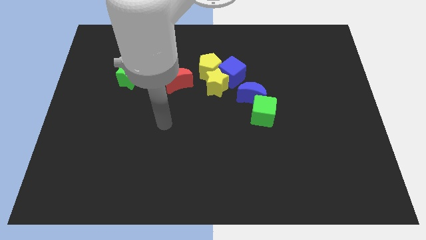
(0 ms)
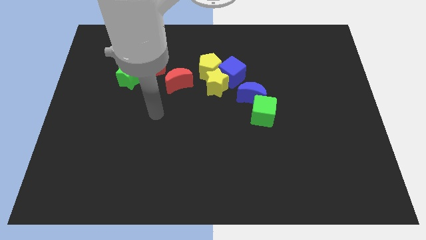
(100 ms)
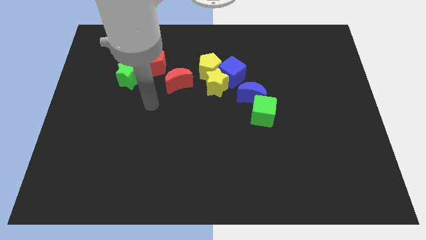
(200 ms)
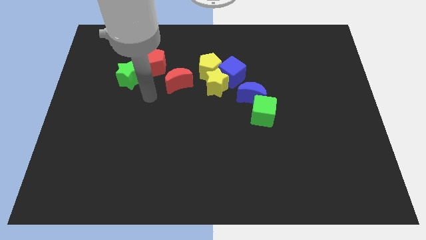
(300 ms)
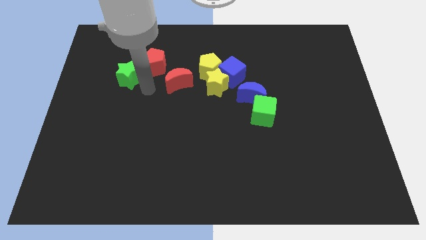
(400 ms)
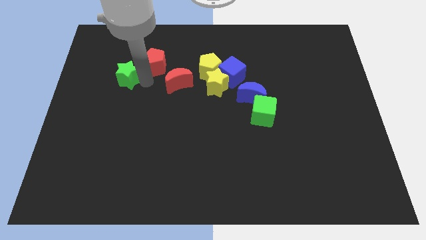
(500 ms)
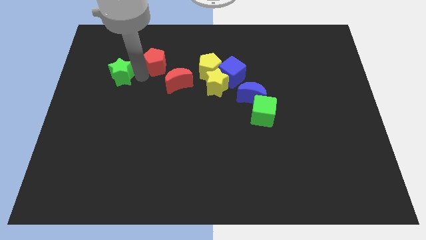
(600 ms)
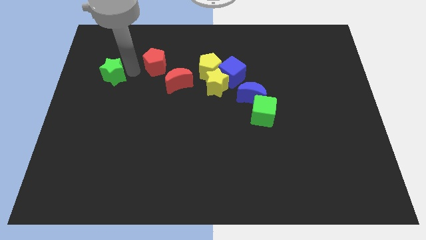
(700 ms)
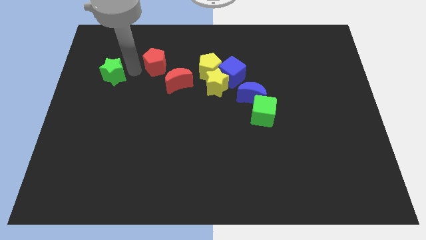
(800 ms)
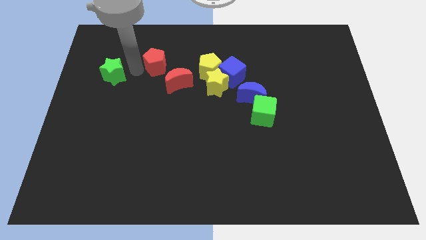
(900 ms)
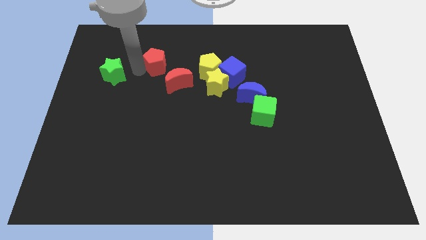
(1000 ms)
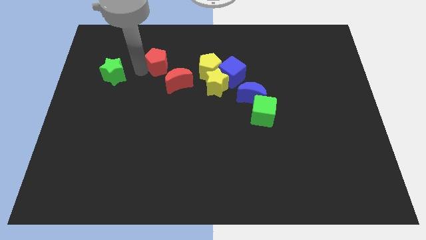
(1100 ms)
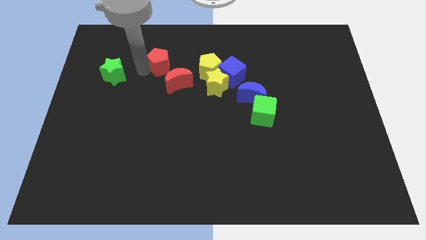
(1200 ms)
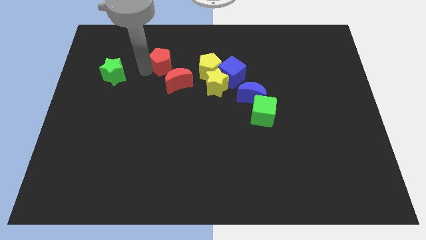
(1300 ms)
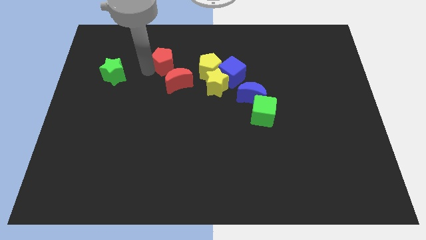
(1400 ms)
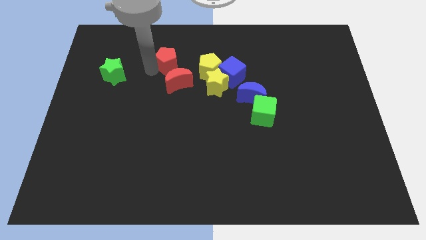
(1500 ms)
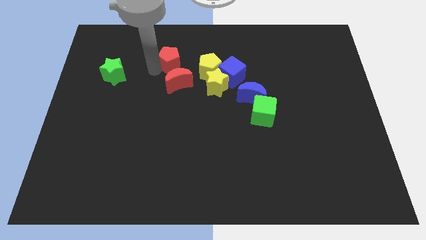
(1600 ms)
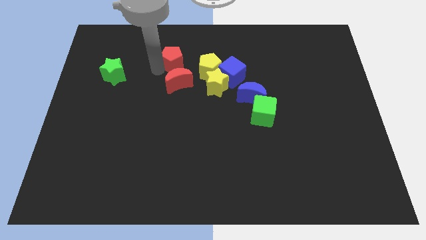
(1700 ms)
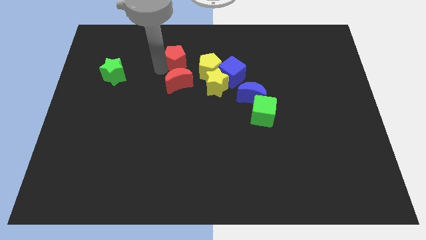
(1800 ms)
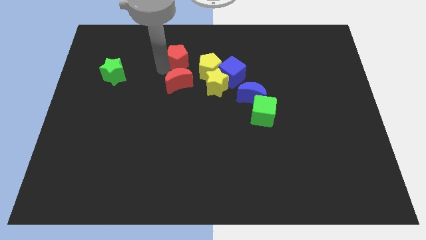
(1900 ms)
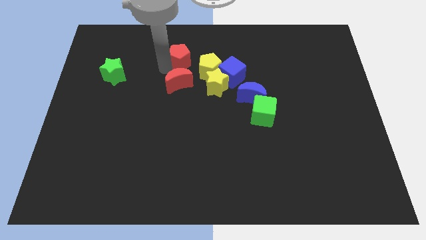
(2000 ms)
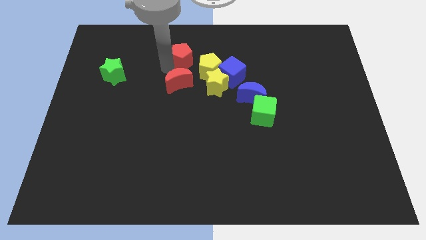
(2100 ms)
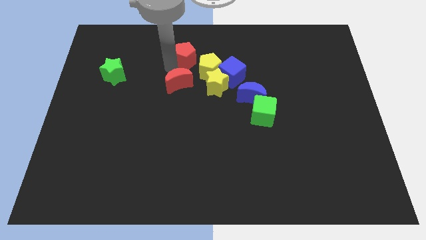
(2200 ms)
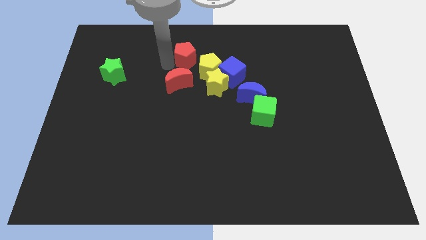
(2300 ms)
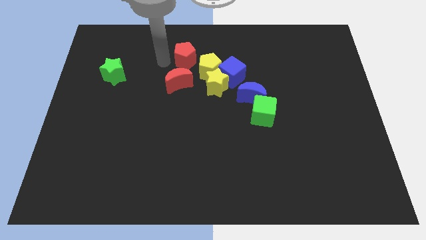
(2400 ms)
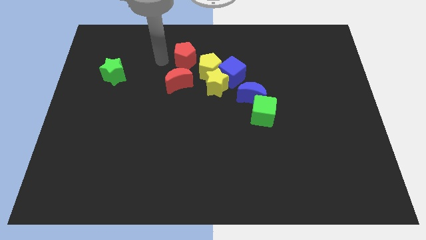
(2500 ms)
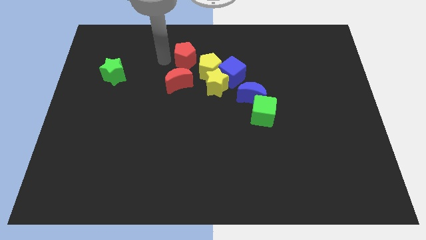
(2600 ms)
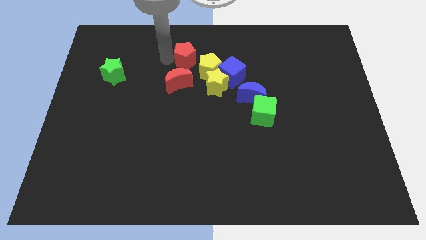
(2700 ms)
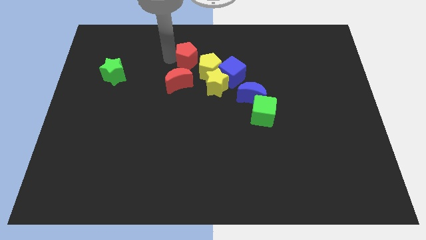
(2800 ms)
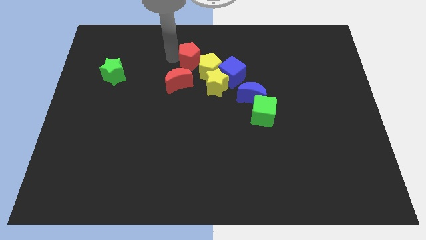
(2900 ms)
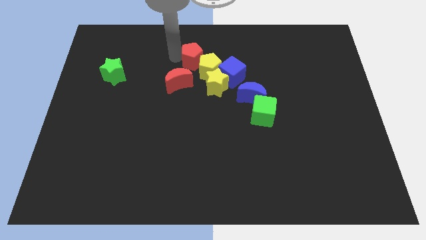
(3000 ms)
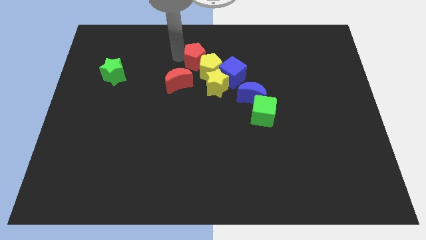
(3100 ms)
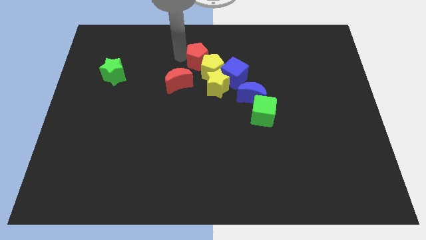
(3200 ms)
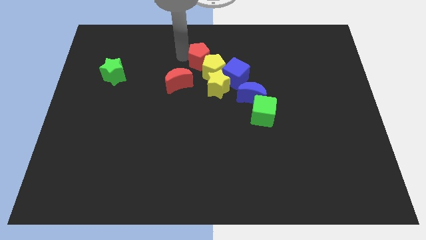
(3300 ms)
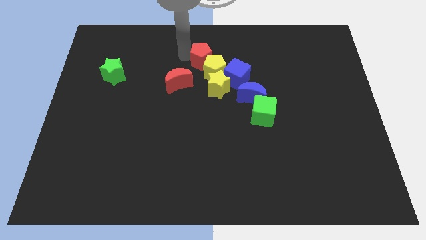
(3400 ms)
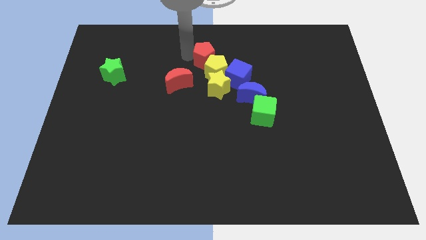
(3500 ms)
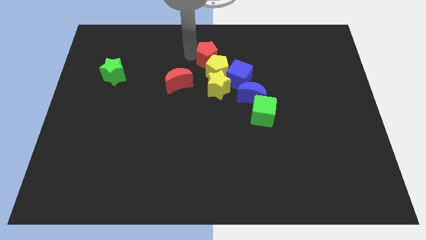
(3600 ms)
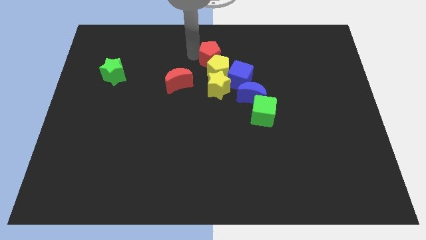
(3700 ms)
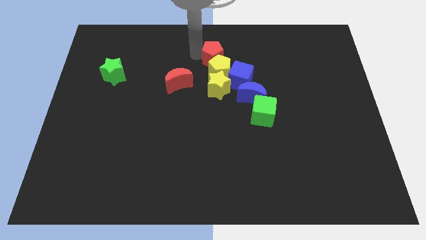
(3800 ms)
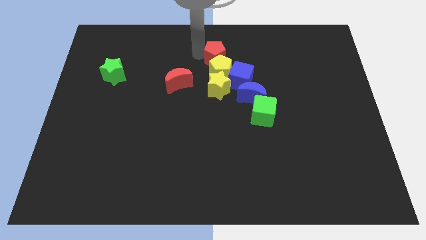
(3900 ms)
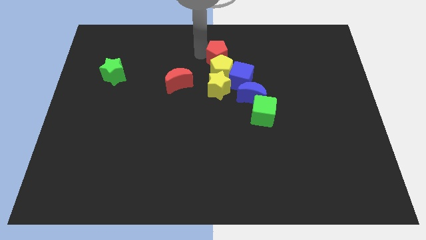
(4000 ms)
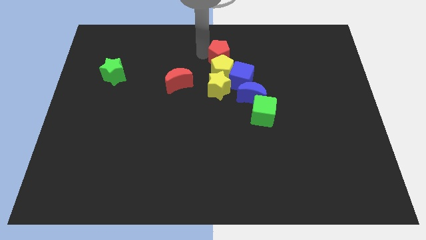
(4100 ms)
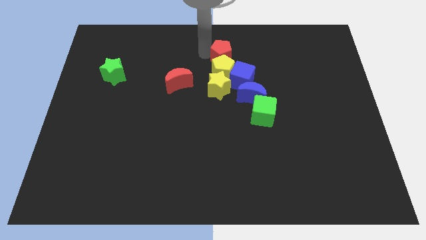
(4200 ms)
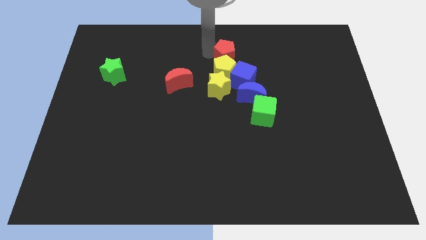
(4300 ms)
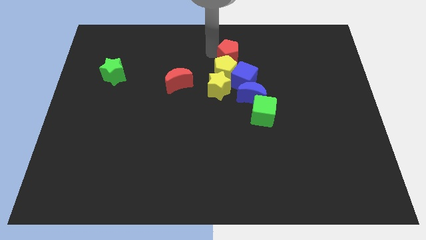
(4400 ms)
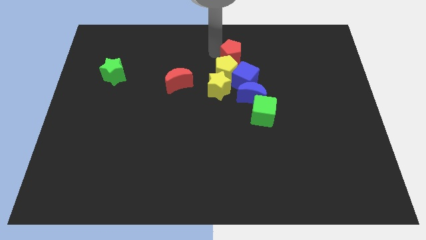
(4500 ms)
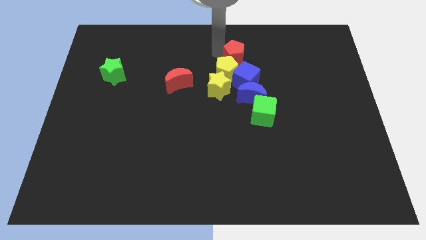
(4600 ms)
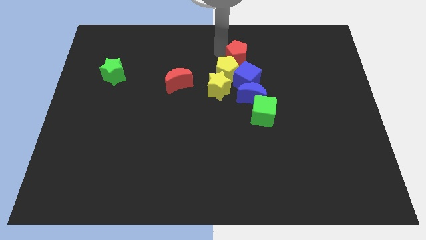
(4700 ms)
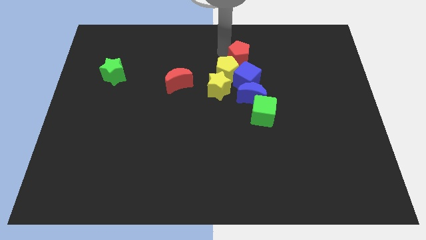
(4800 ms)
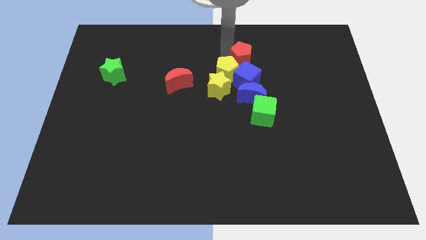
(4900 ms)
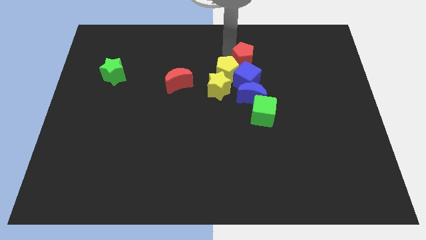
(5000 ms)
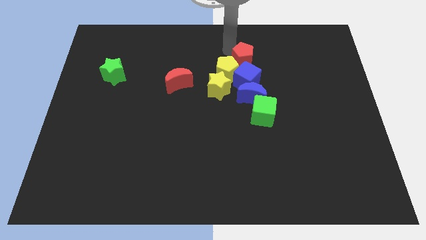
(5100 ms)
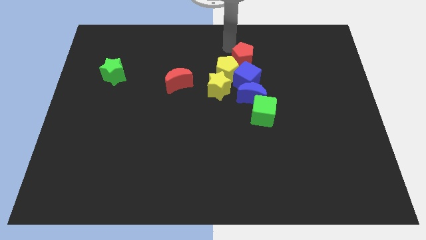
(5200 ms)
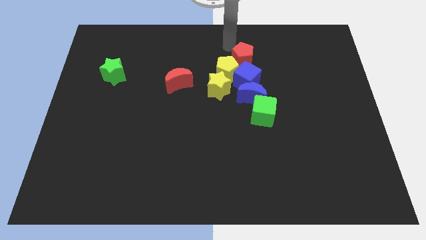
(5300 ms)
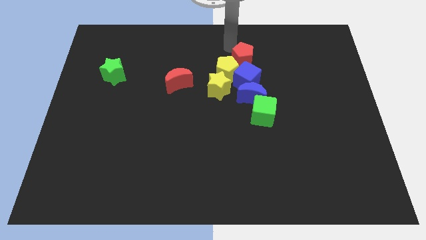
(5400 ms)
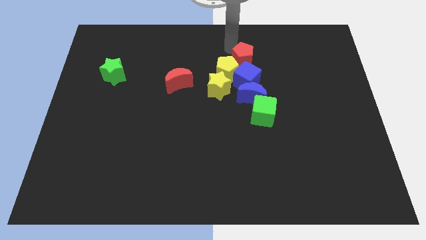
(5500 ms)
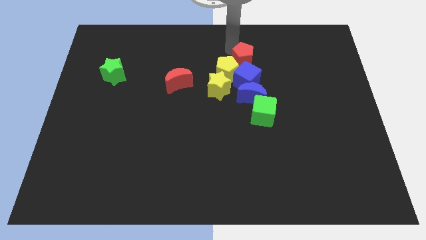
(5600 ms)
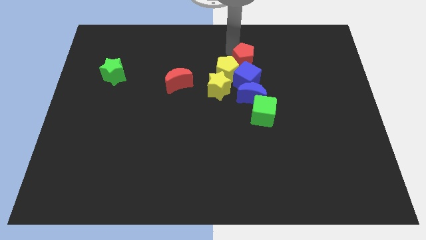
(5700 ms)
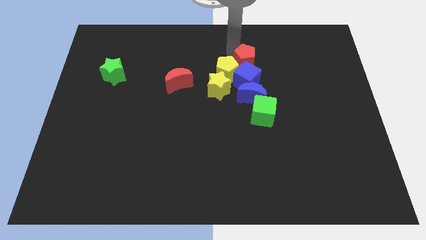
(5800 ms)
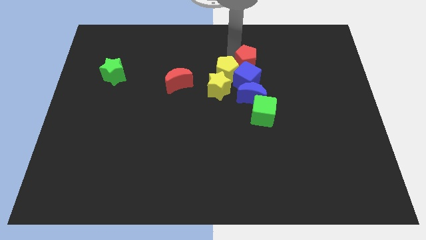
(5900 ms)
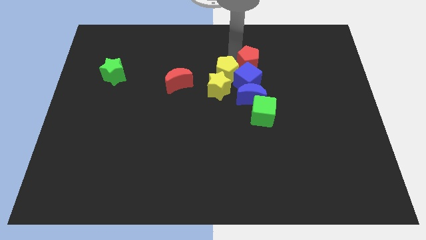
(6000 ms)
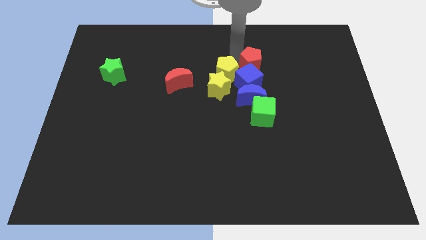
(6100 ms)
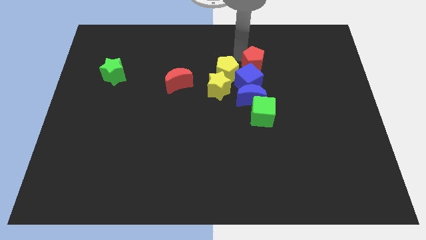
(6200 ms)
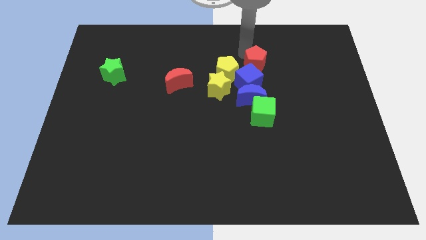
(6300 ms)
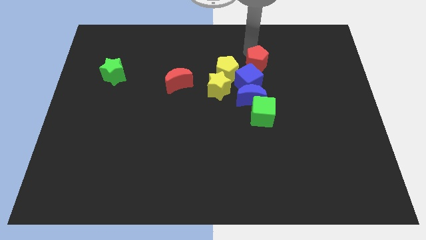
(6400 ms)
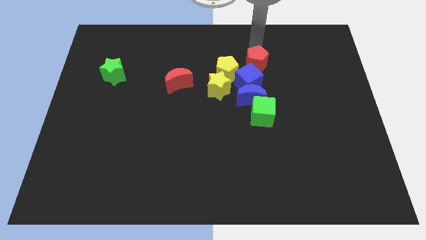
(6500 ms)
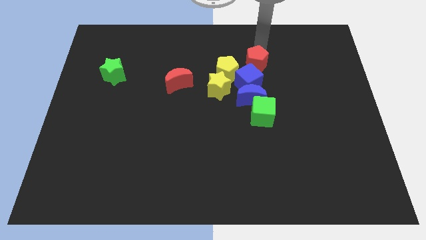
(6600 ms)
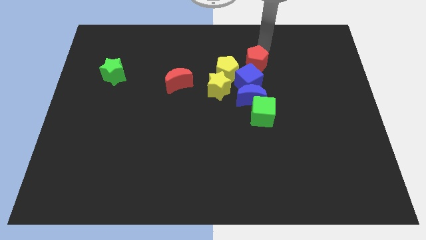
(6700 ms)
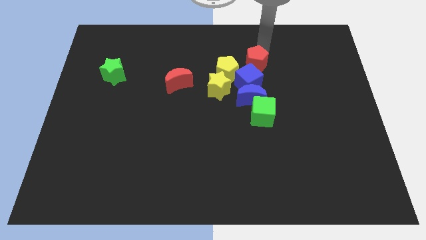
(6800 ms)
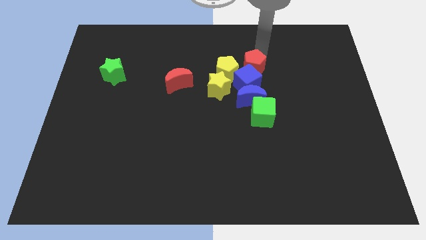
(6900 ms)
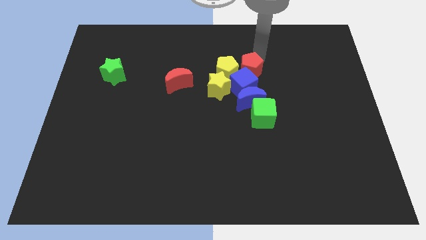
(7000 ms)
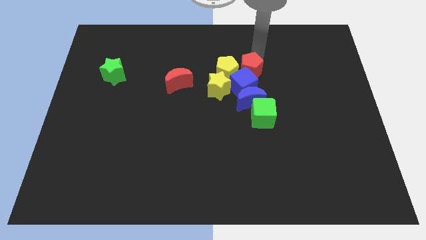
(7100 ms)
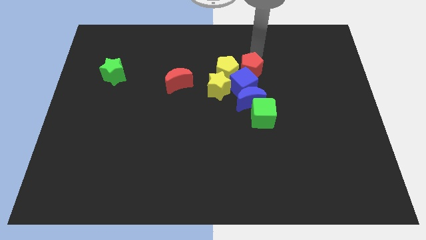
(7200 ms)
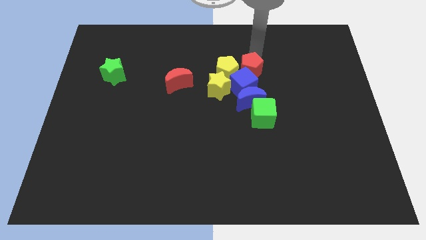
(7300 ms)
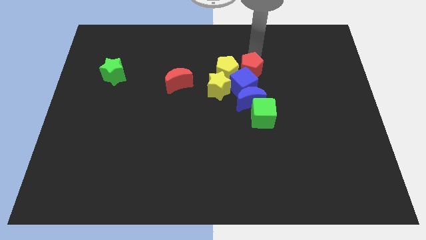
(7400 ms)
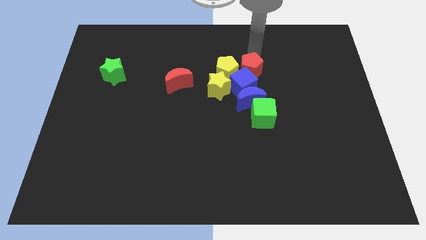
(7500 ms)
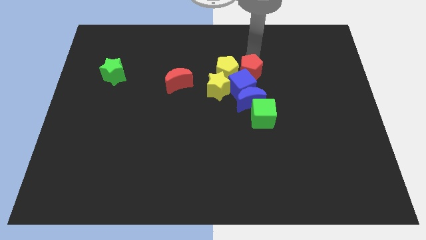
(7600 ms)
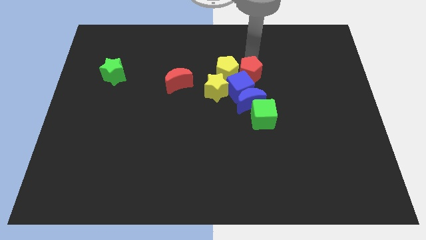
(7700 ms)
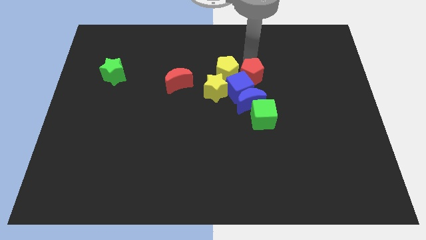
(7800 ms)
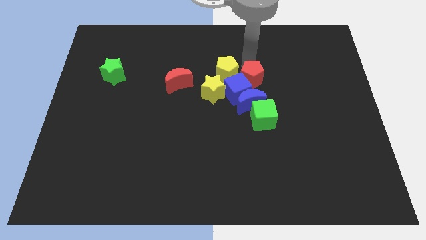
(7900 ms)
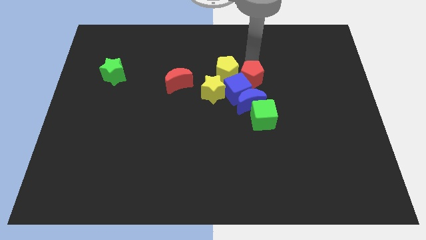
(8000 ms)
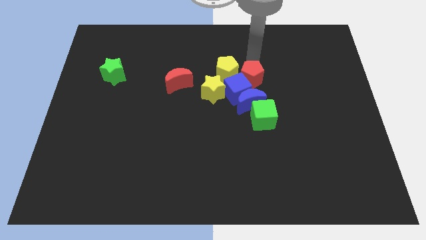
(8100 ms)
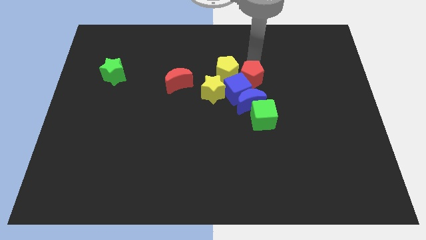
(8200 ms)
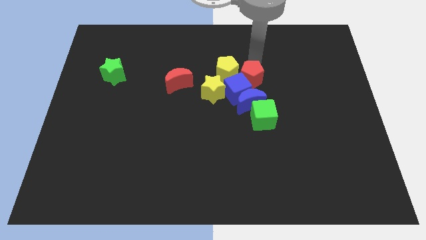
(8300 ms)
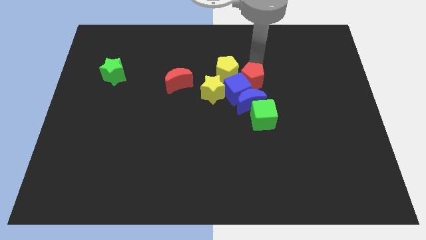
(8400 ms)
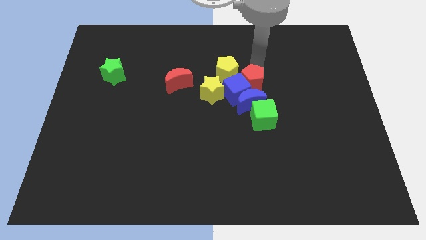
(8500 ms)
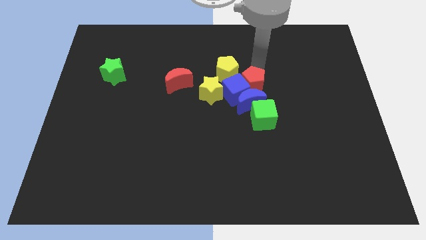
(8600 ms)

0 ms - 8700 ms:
put the red pentagon close to the blue moon
